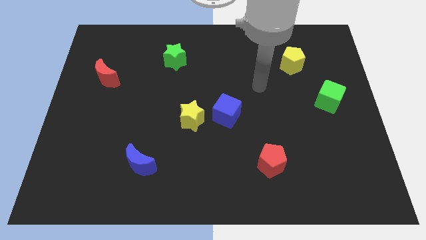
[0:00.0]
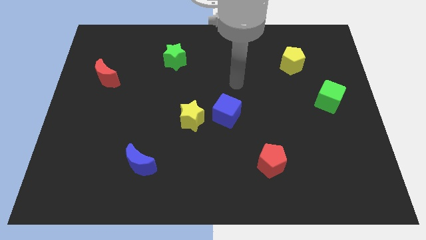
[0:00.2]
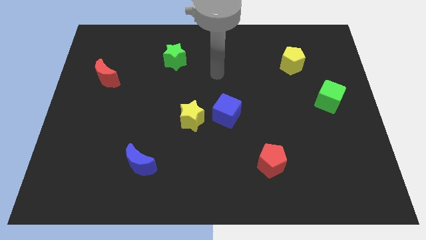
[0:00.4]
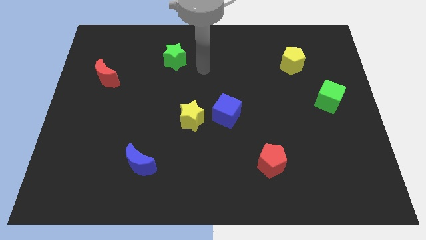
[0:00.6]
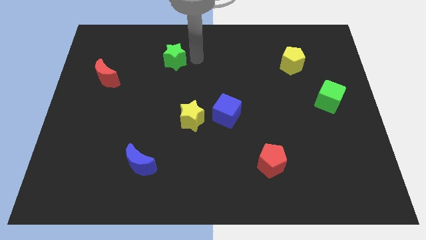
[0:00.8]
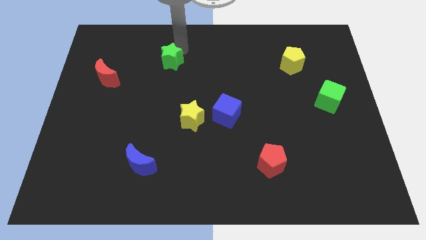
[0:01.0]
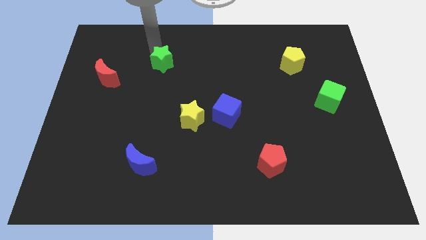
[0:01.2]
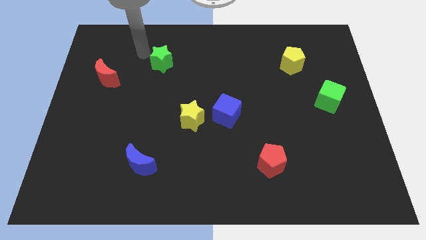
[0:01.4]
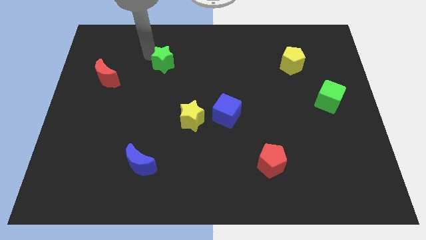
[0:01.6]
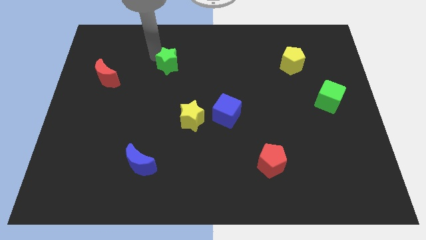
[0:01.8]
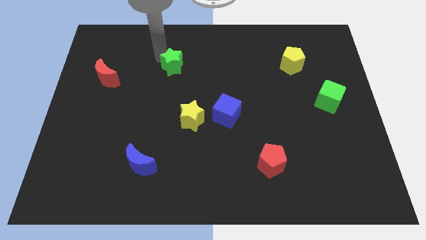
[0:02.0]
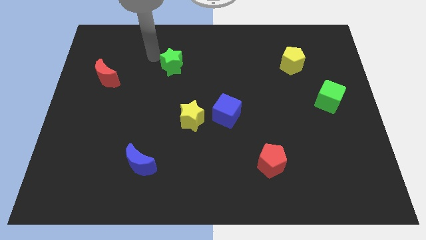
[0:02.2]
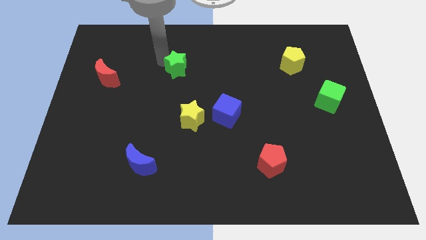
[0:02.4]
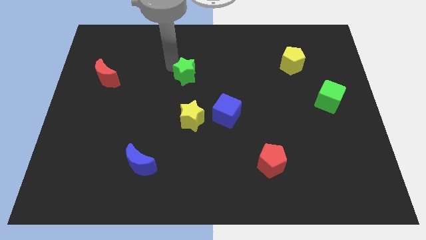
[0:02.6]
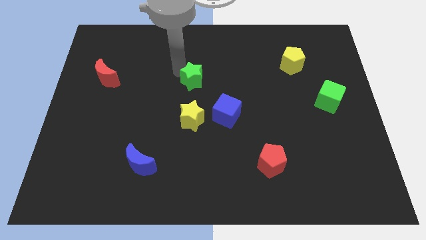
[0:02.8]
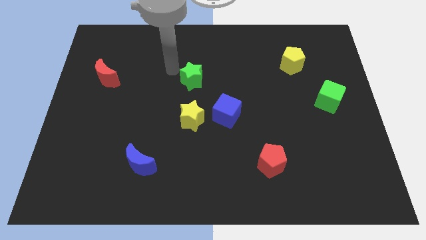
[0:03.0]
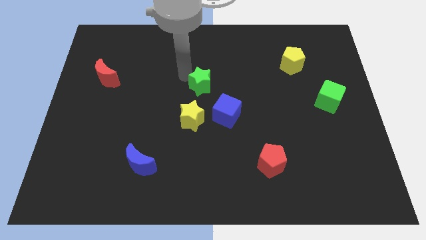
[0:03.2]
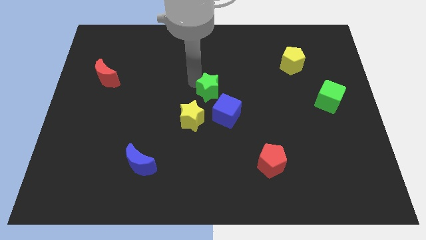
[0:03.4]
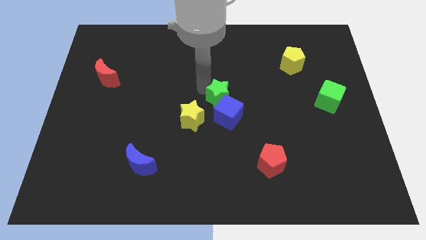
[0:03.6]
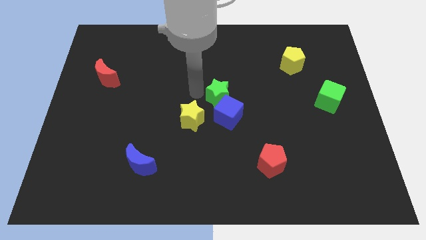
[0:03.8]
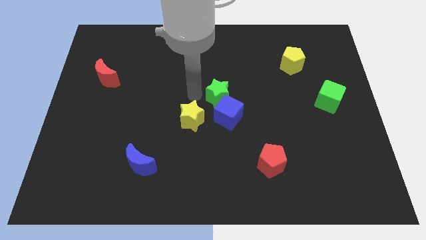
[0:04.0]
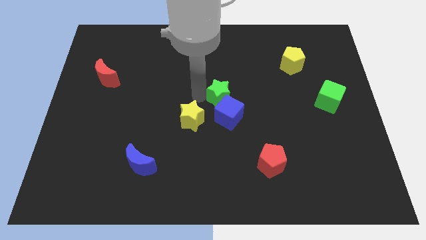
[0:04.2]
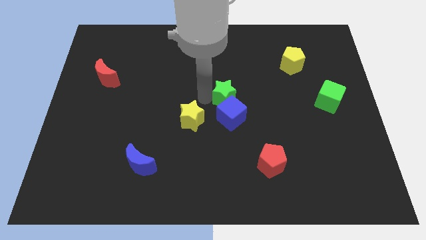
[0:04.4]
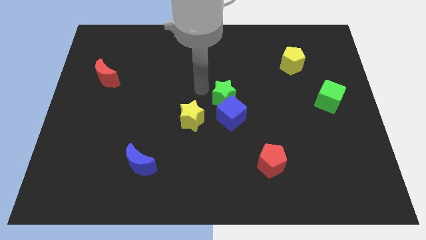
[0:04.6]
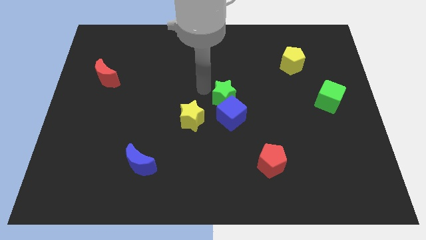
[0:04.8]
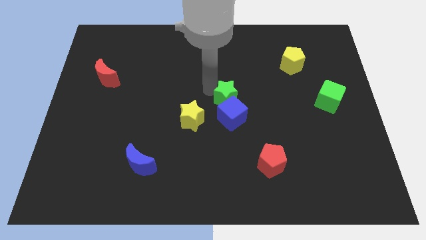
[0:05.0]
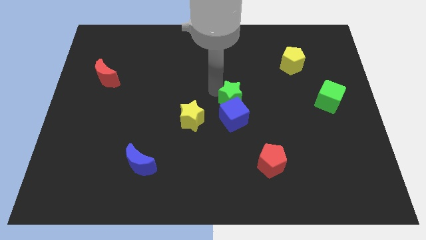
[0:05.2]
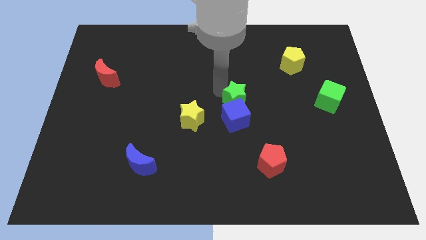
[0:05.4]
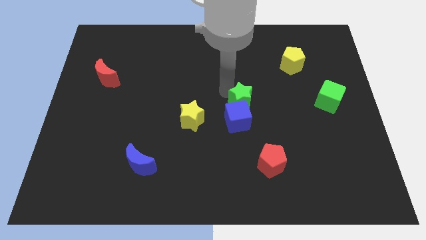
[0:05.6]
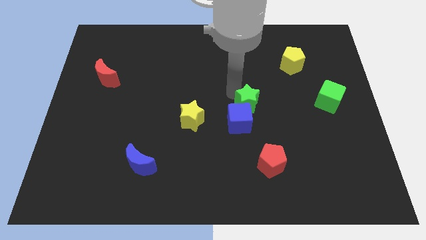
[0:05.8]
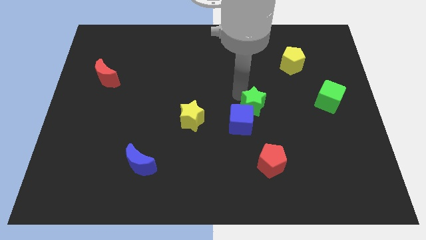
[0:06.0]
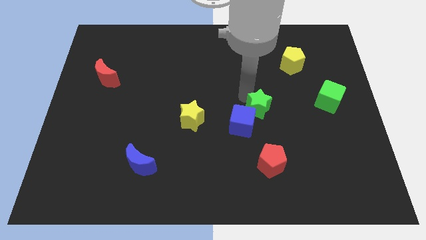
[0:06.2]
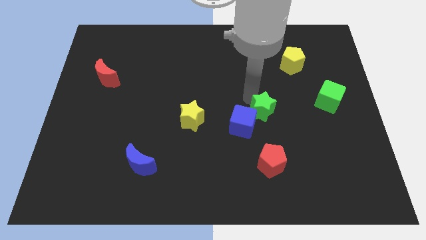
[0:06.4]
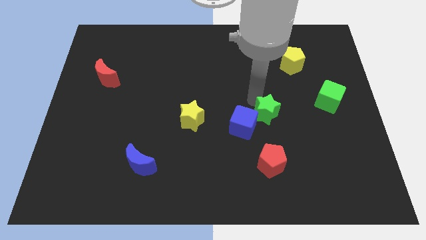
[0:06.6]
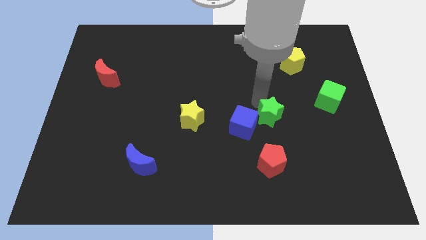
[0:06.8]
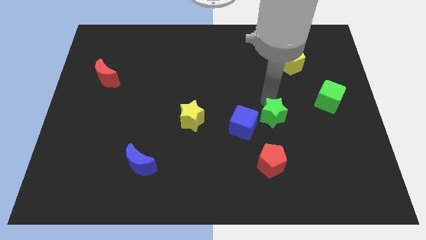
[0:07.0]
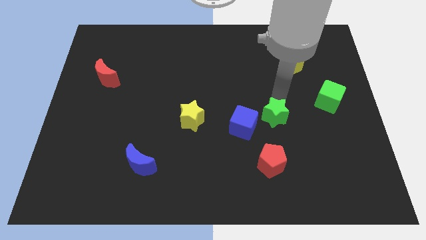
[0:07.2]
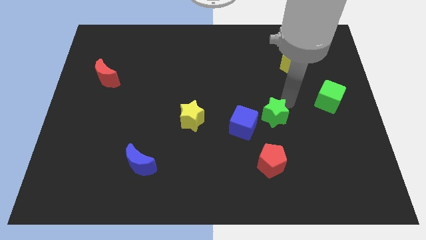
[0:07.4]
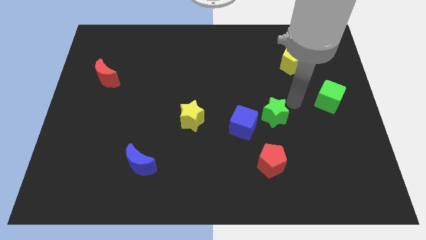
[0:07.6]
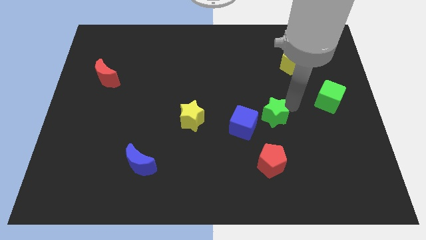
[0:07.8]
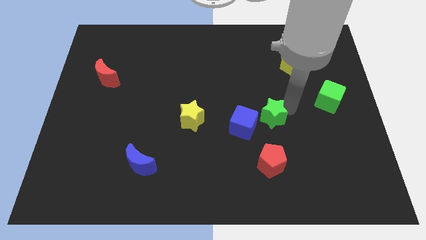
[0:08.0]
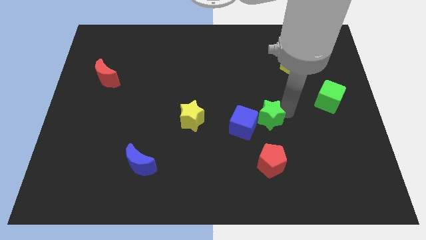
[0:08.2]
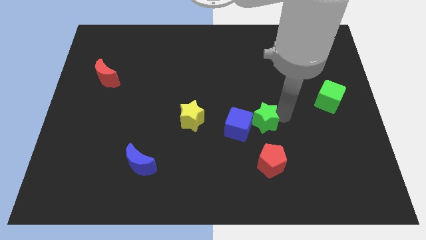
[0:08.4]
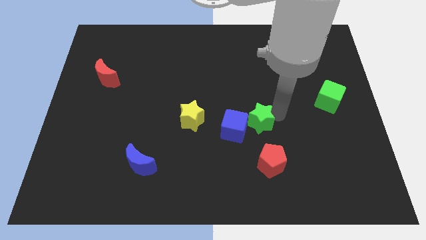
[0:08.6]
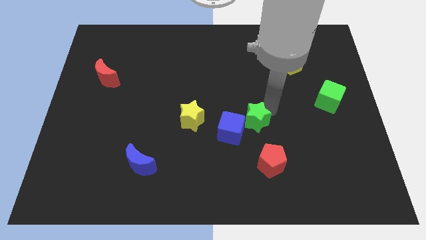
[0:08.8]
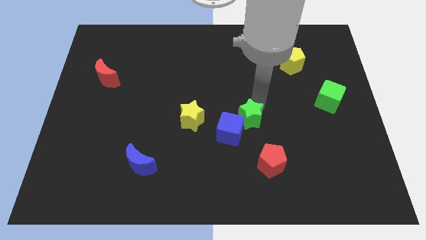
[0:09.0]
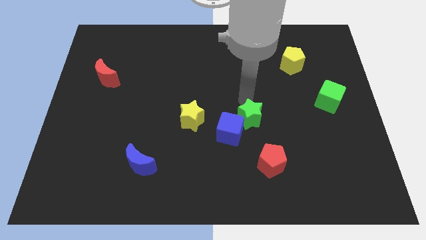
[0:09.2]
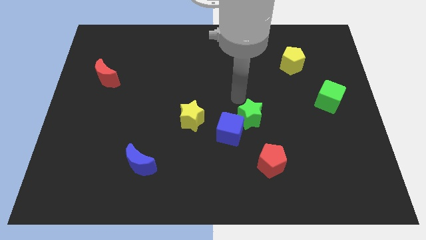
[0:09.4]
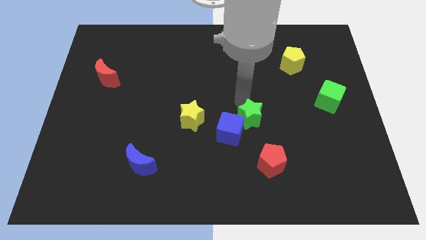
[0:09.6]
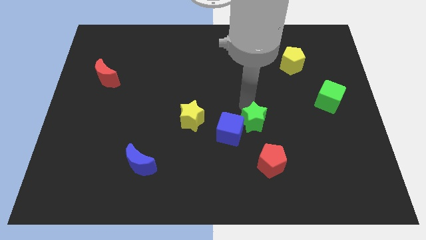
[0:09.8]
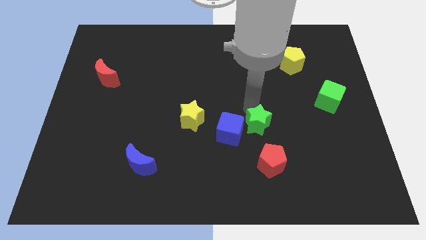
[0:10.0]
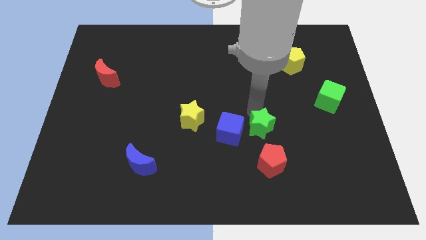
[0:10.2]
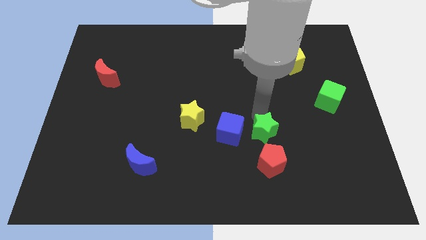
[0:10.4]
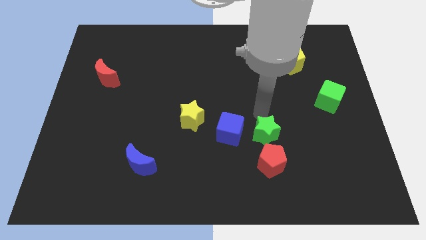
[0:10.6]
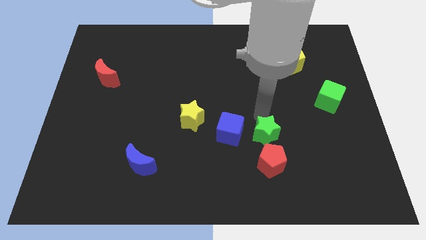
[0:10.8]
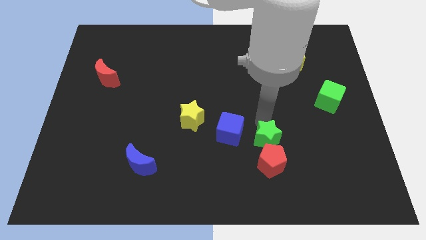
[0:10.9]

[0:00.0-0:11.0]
move the green star towards the red pentagon

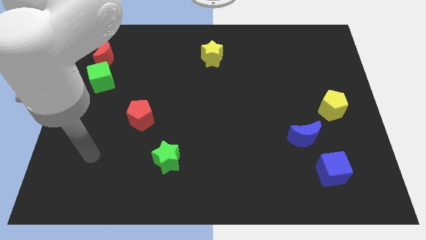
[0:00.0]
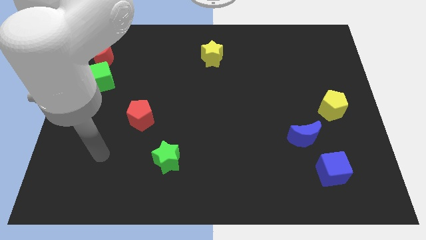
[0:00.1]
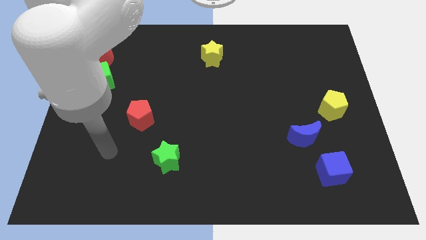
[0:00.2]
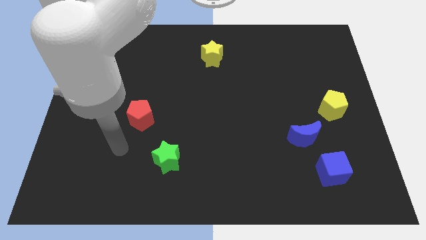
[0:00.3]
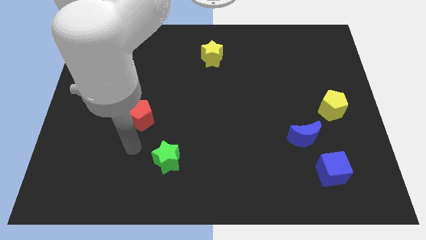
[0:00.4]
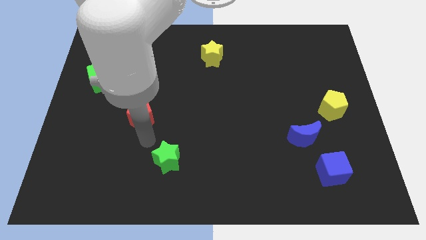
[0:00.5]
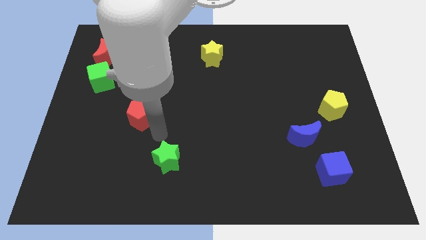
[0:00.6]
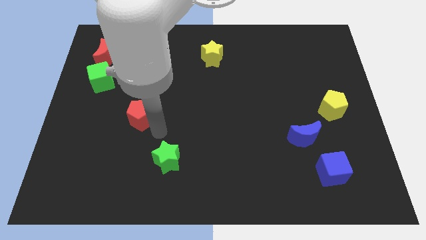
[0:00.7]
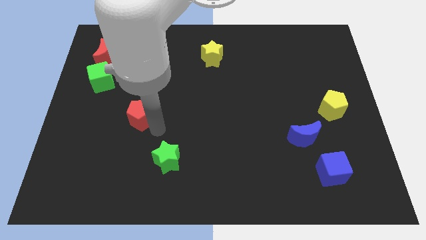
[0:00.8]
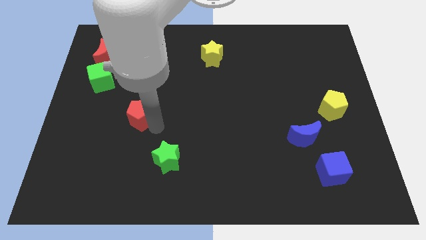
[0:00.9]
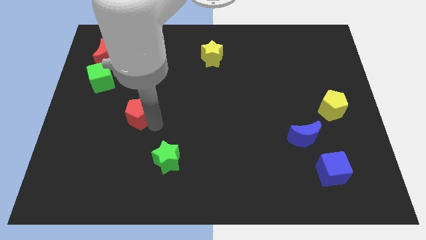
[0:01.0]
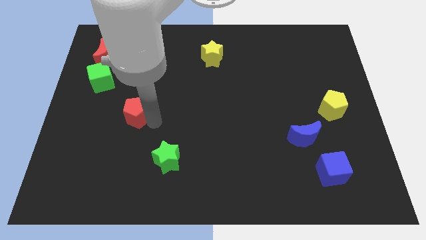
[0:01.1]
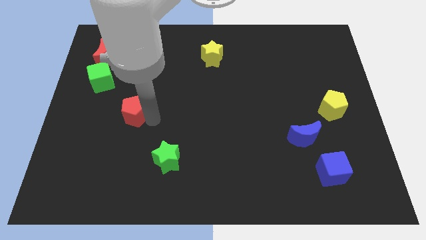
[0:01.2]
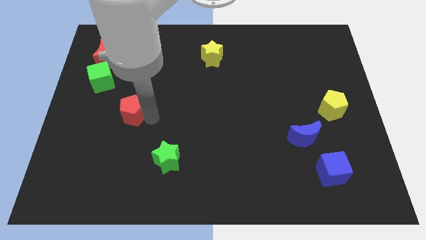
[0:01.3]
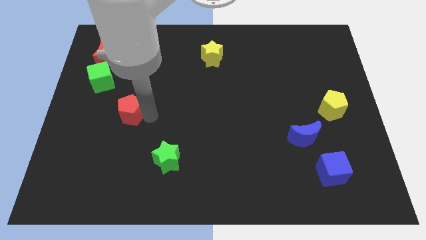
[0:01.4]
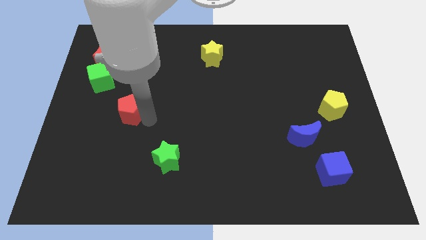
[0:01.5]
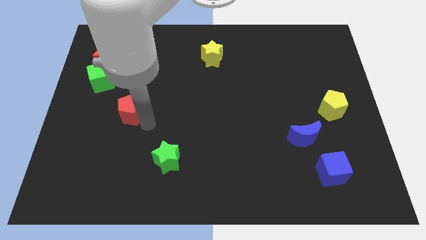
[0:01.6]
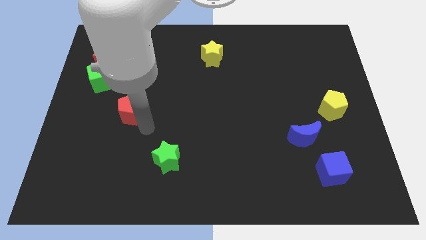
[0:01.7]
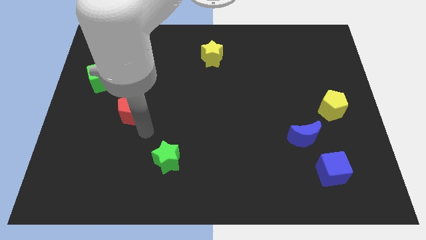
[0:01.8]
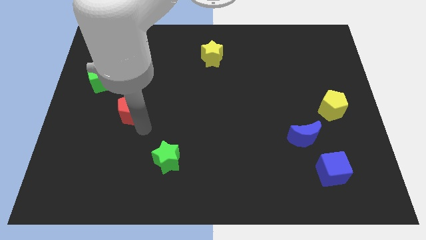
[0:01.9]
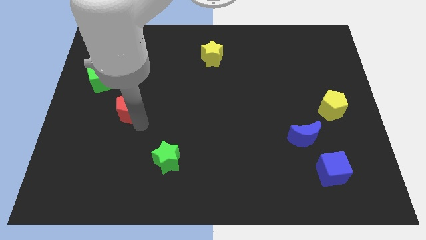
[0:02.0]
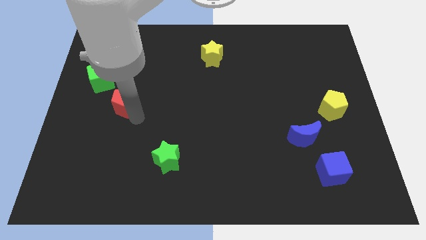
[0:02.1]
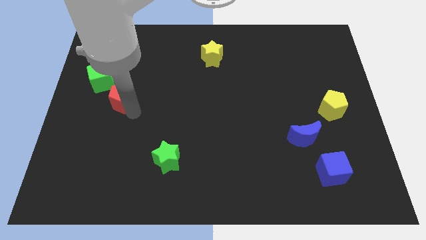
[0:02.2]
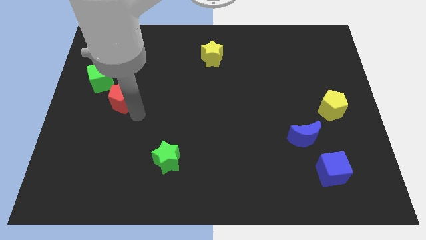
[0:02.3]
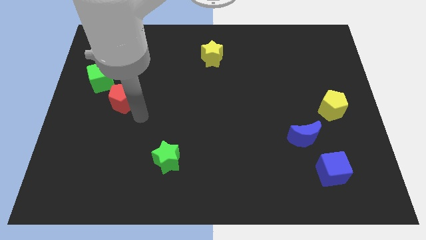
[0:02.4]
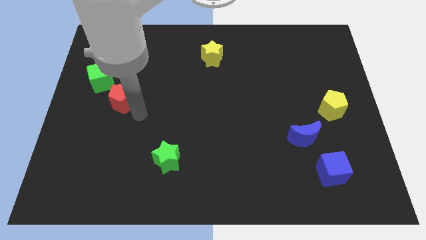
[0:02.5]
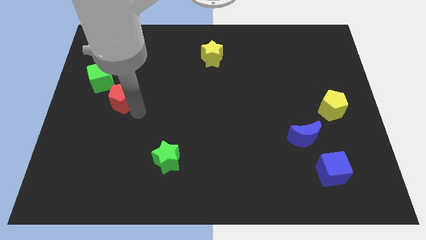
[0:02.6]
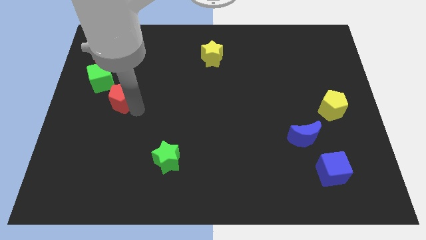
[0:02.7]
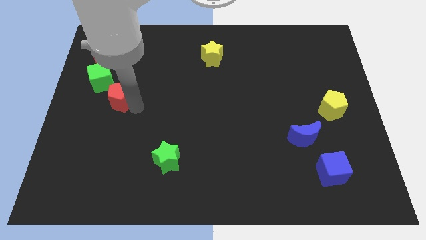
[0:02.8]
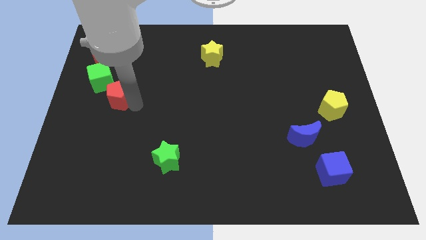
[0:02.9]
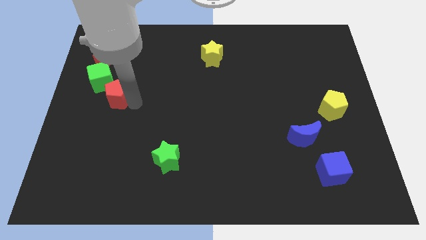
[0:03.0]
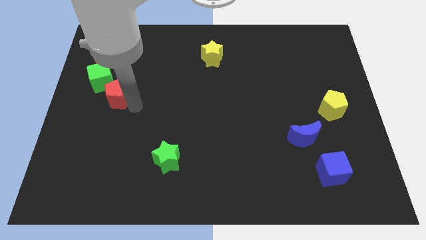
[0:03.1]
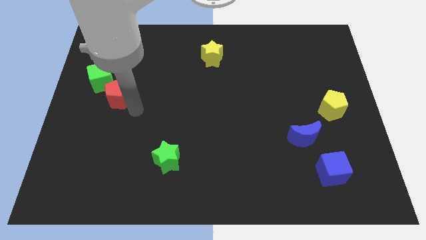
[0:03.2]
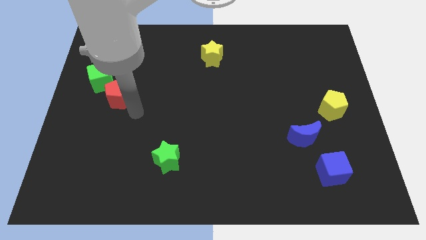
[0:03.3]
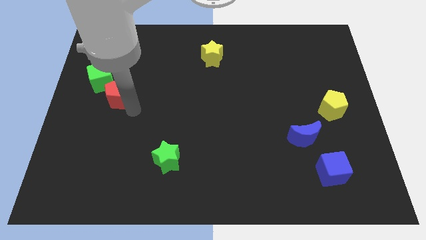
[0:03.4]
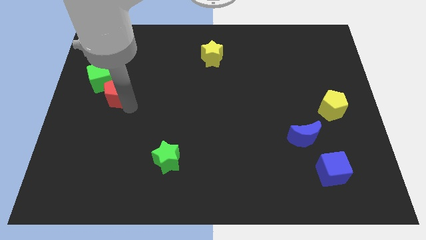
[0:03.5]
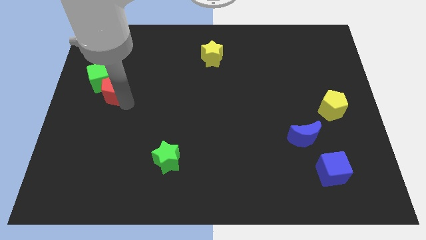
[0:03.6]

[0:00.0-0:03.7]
slide the red pentagon to the green cube
